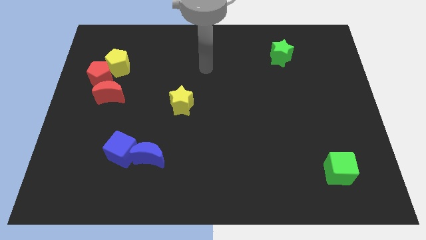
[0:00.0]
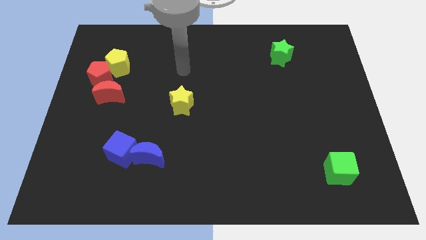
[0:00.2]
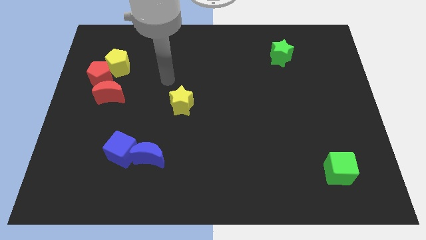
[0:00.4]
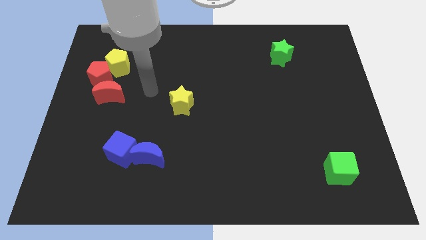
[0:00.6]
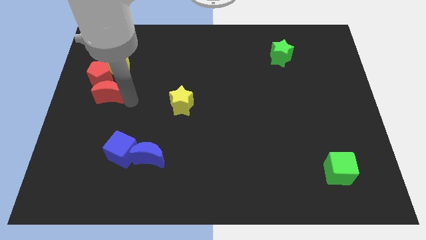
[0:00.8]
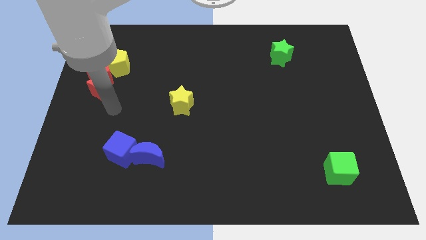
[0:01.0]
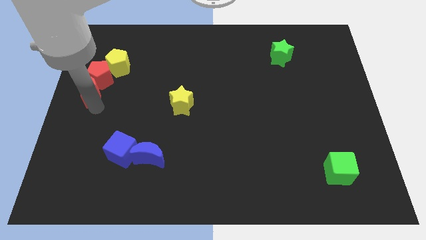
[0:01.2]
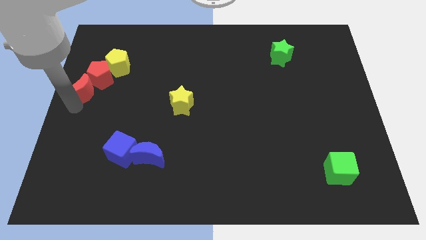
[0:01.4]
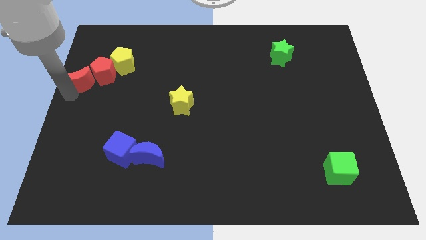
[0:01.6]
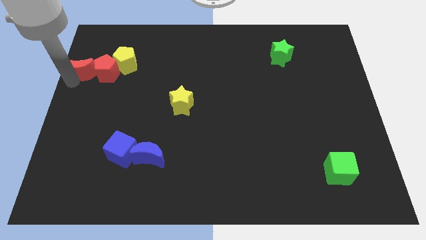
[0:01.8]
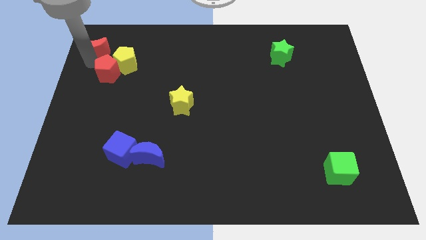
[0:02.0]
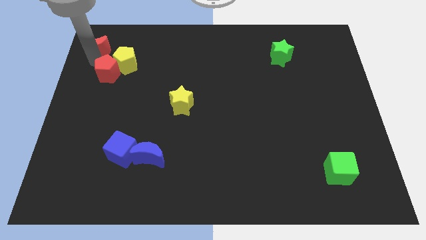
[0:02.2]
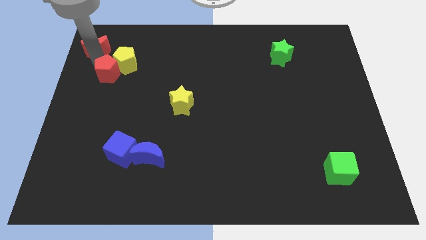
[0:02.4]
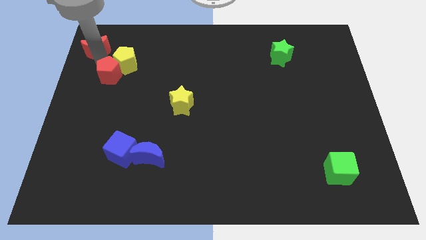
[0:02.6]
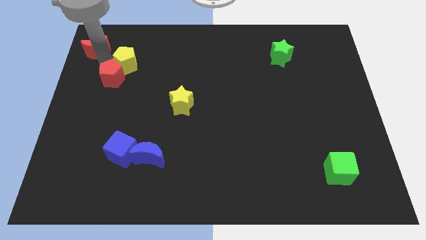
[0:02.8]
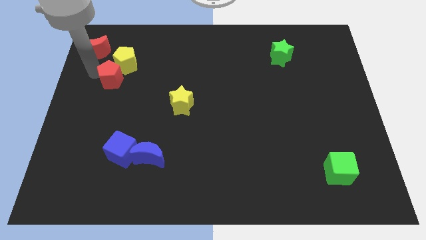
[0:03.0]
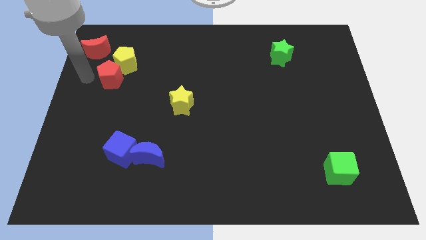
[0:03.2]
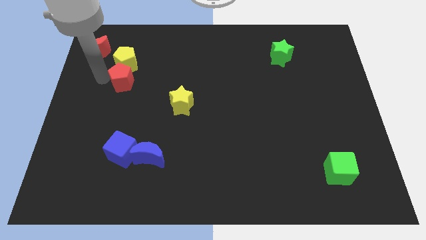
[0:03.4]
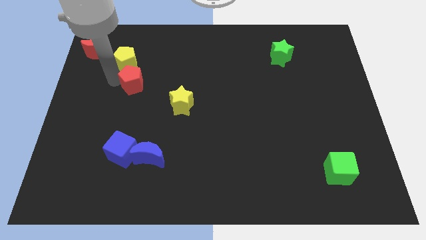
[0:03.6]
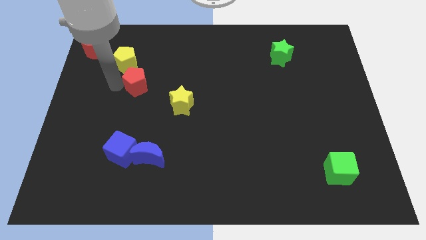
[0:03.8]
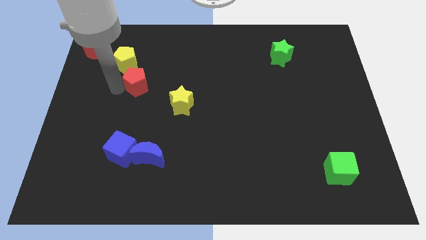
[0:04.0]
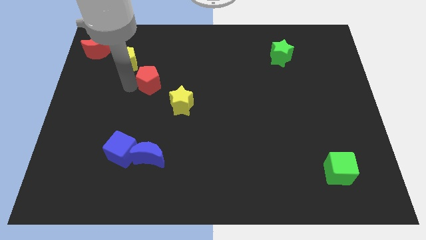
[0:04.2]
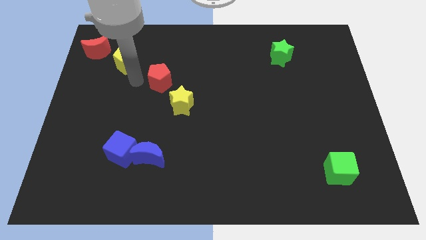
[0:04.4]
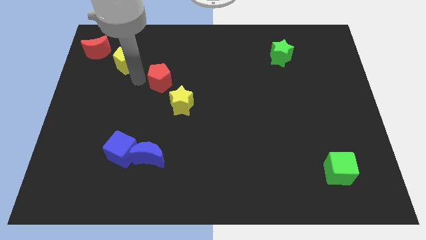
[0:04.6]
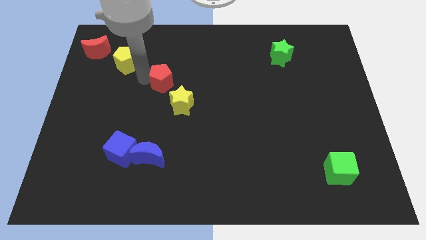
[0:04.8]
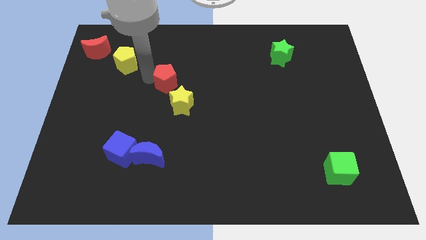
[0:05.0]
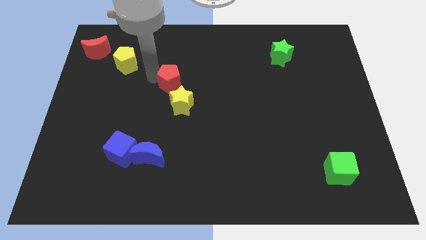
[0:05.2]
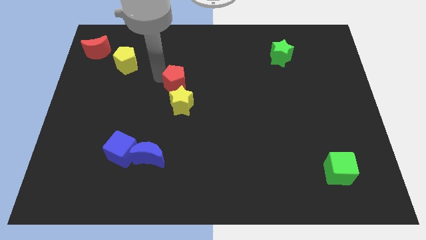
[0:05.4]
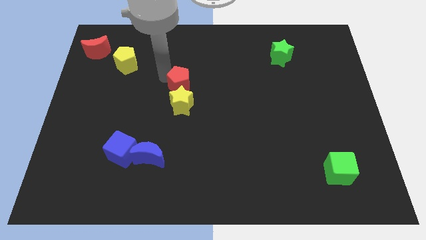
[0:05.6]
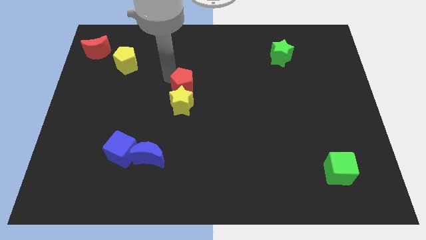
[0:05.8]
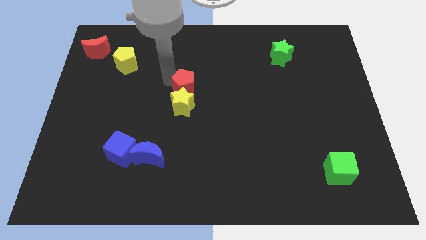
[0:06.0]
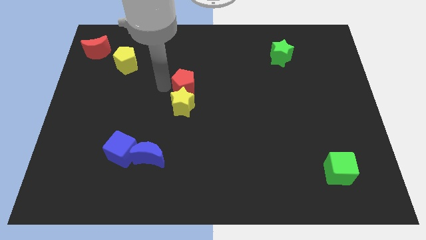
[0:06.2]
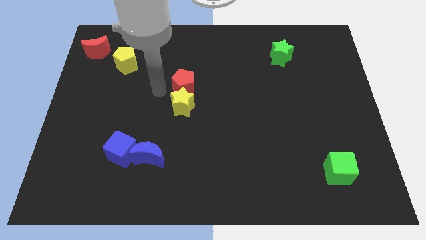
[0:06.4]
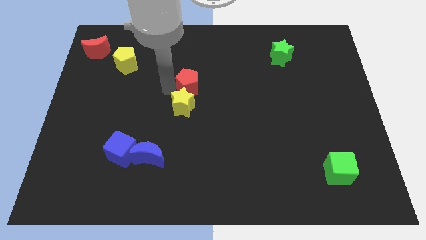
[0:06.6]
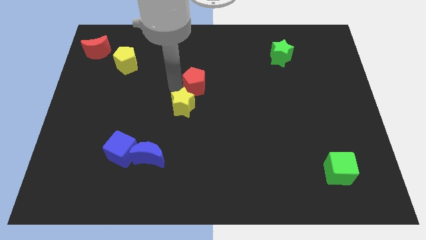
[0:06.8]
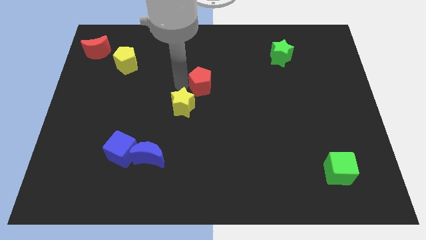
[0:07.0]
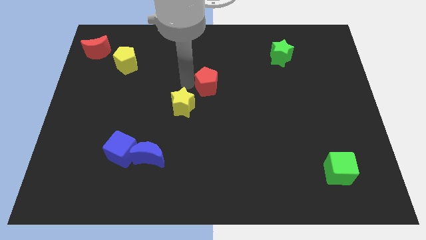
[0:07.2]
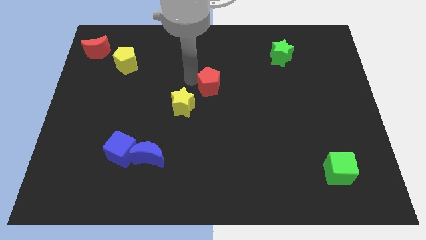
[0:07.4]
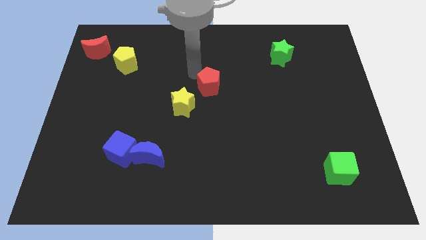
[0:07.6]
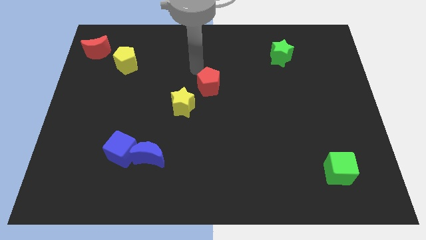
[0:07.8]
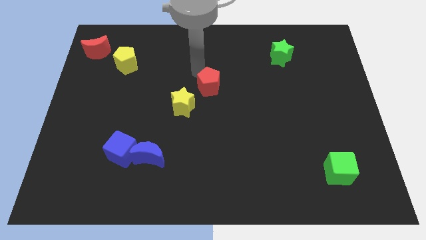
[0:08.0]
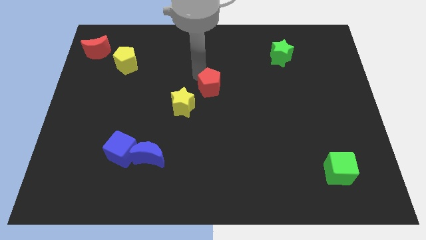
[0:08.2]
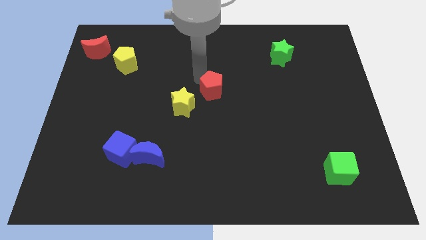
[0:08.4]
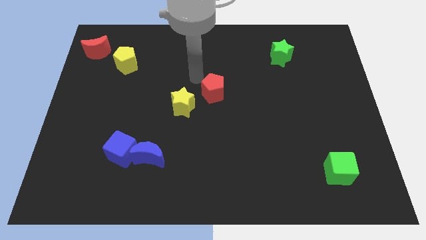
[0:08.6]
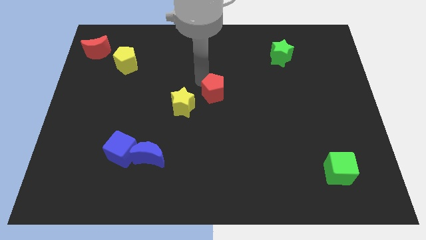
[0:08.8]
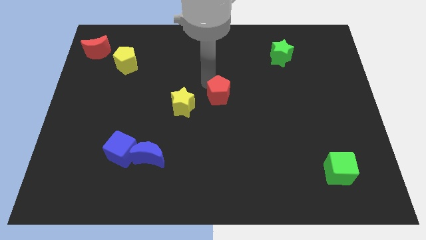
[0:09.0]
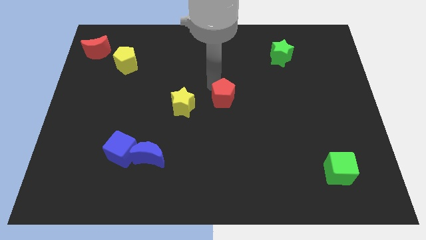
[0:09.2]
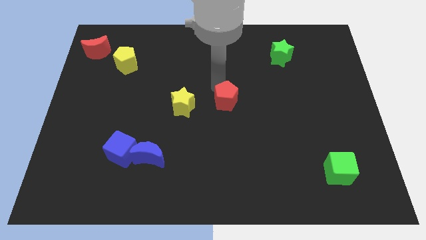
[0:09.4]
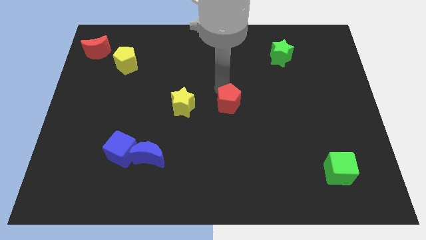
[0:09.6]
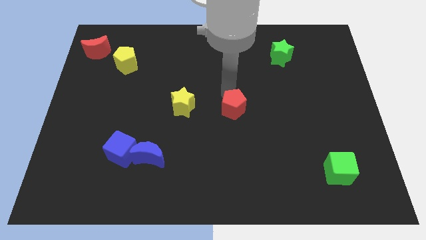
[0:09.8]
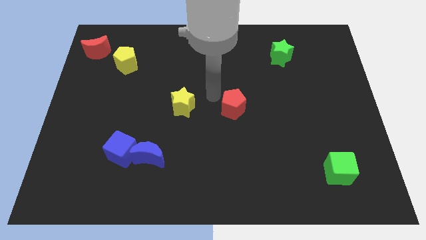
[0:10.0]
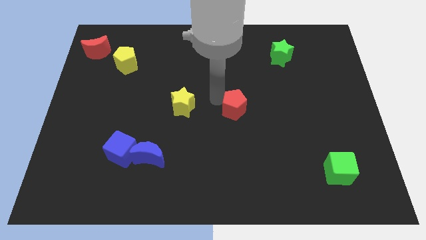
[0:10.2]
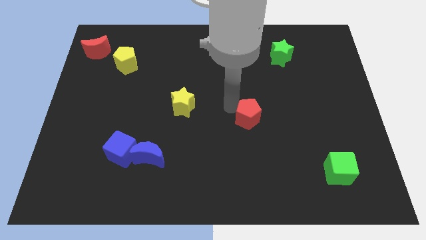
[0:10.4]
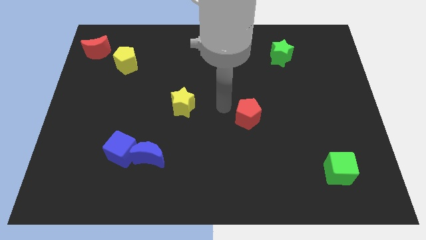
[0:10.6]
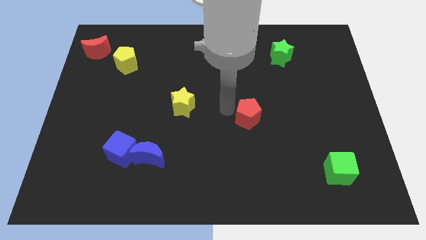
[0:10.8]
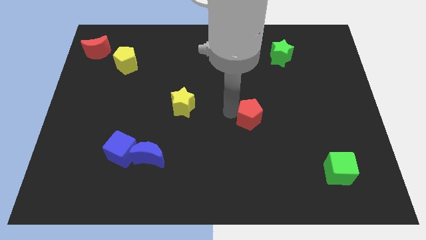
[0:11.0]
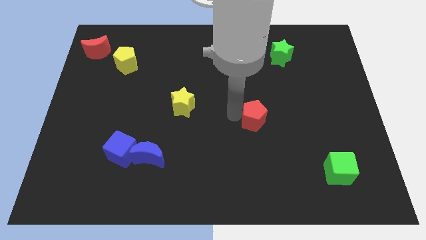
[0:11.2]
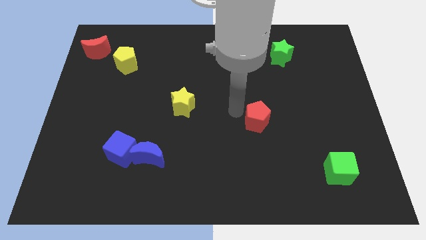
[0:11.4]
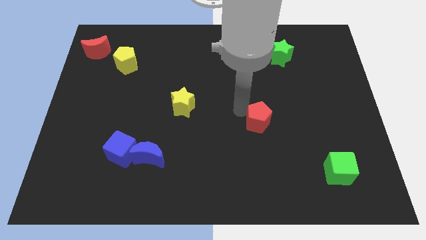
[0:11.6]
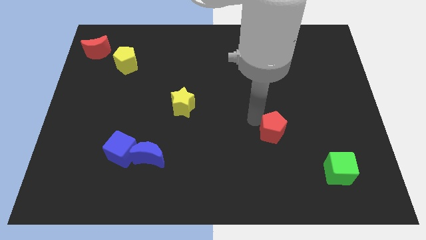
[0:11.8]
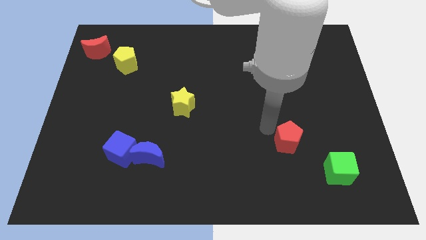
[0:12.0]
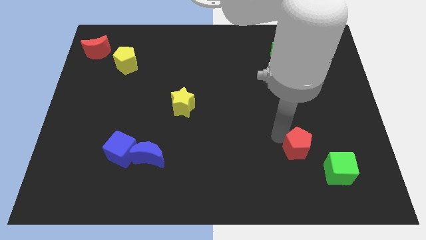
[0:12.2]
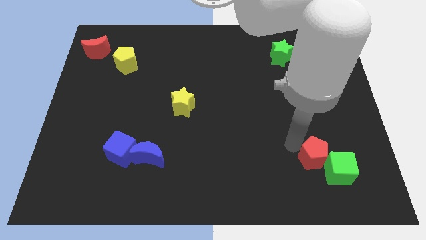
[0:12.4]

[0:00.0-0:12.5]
move the red pentagon to the green cube
